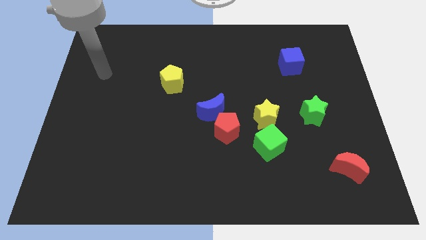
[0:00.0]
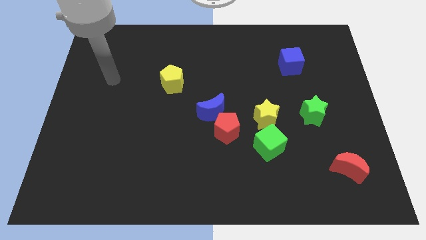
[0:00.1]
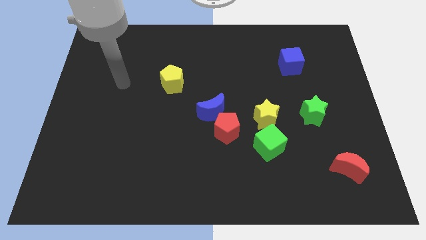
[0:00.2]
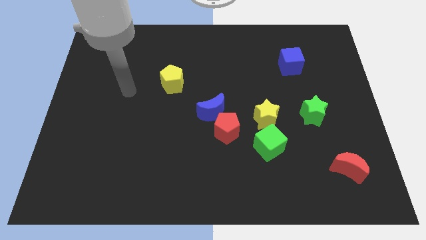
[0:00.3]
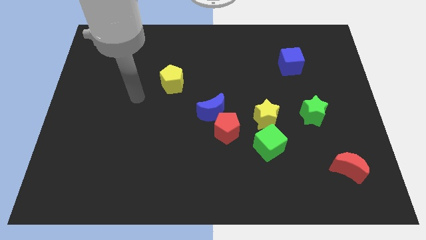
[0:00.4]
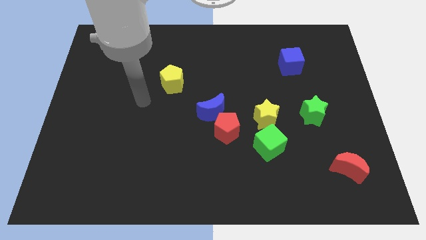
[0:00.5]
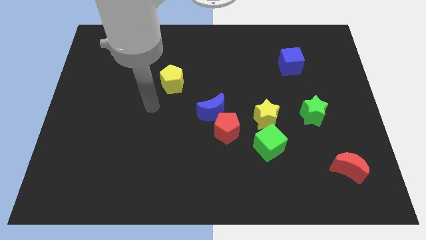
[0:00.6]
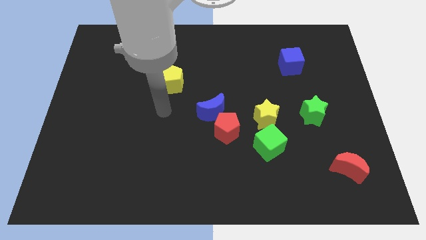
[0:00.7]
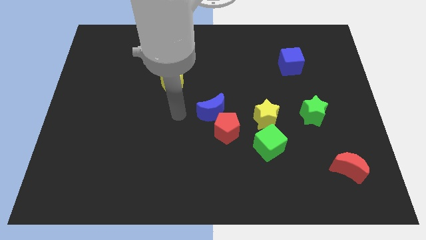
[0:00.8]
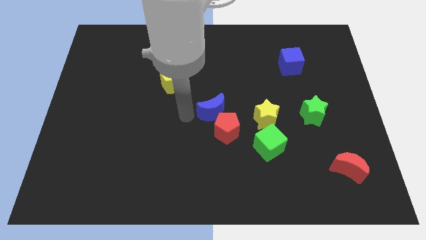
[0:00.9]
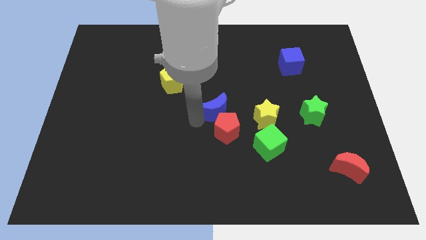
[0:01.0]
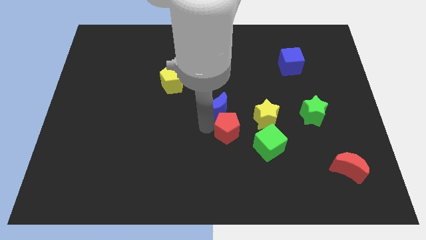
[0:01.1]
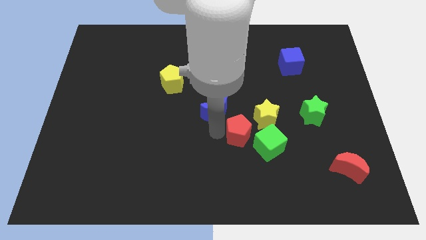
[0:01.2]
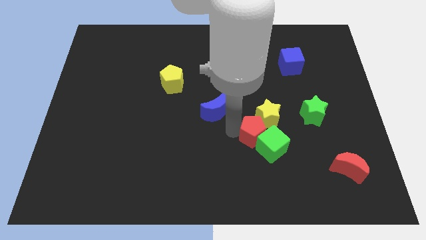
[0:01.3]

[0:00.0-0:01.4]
separate the blue moon from the red pentagon

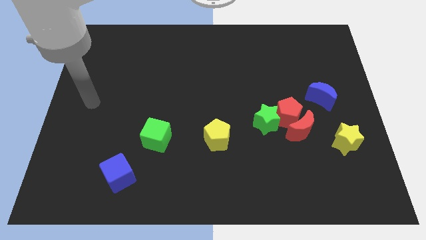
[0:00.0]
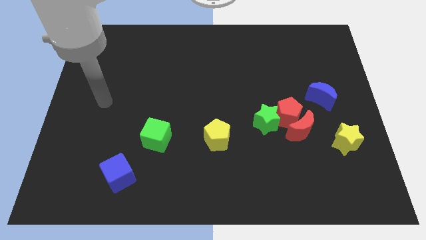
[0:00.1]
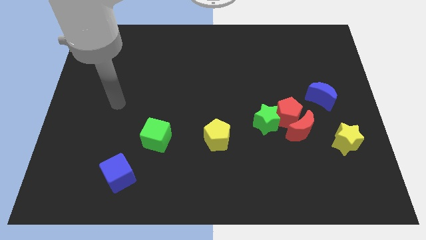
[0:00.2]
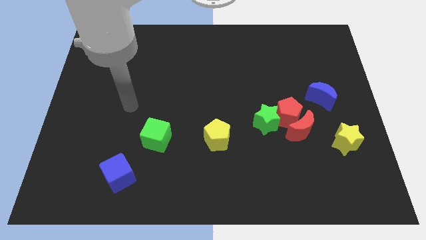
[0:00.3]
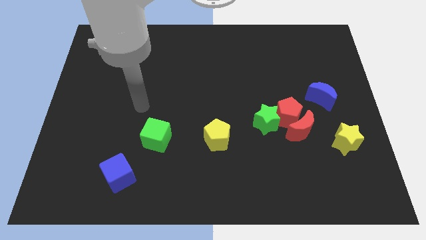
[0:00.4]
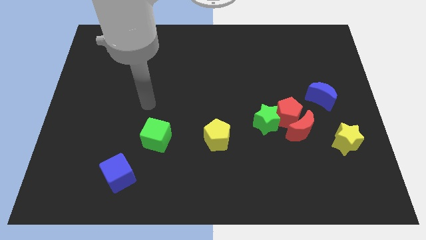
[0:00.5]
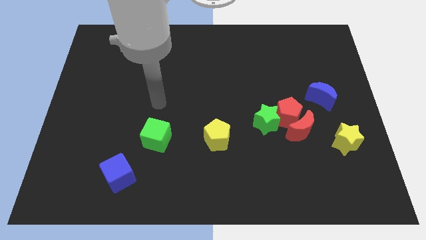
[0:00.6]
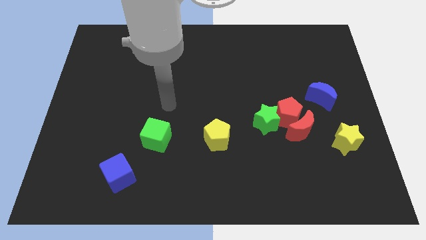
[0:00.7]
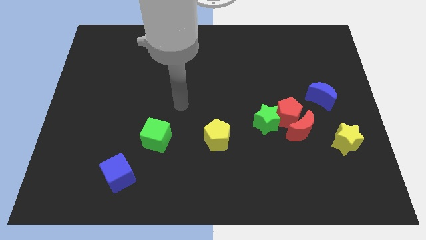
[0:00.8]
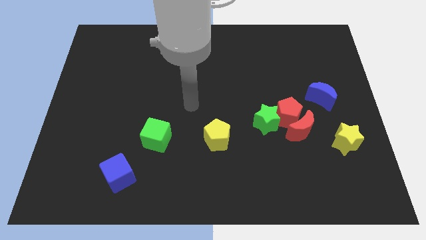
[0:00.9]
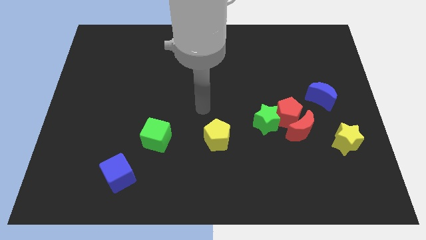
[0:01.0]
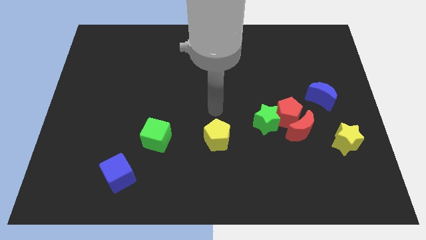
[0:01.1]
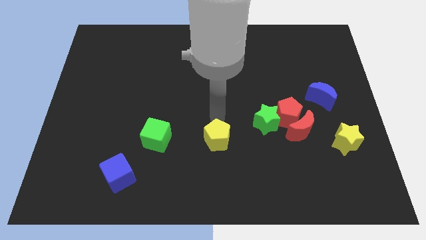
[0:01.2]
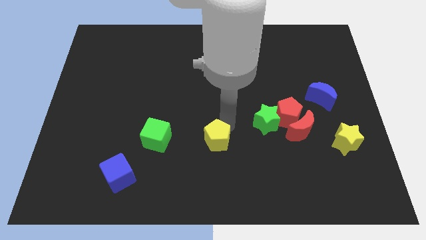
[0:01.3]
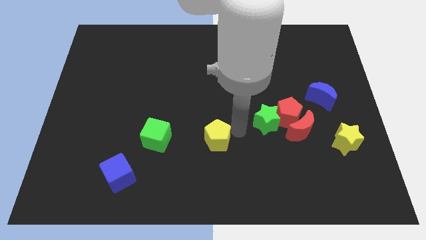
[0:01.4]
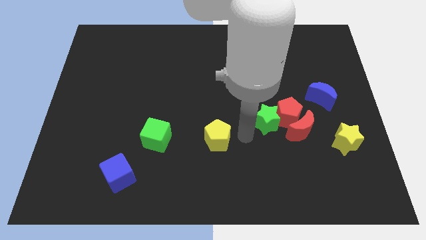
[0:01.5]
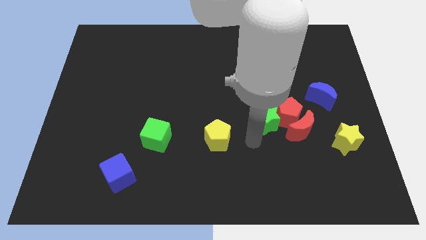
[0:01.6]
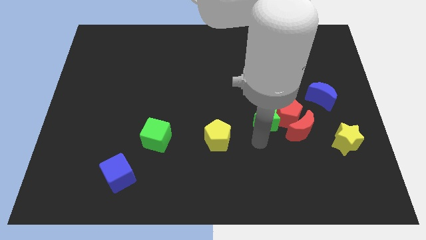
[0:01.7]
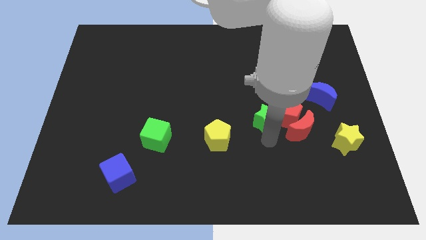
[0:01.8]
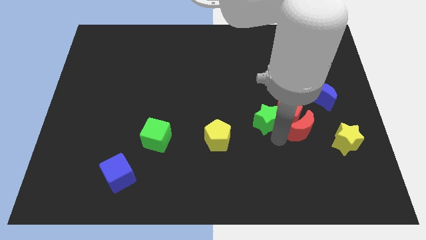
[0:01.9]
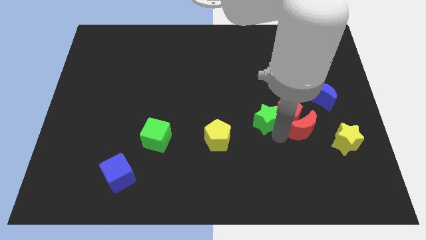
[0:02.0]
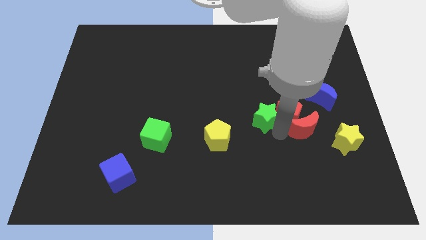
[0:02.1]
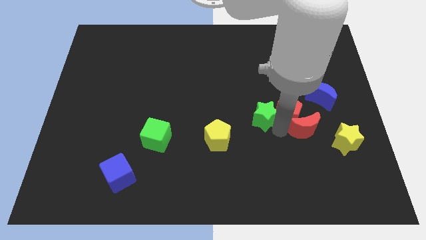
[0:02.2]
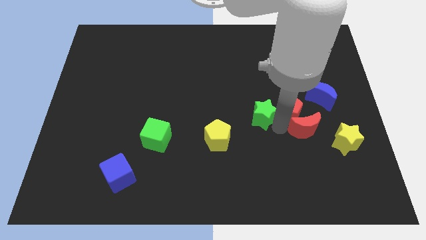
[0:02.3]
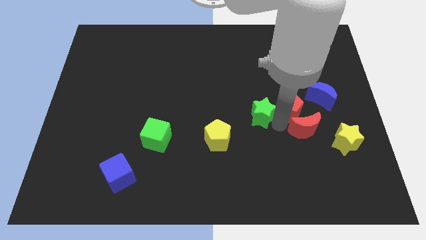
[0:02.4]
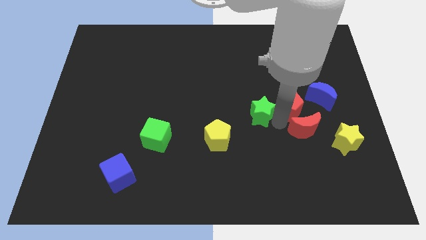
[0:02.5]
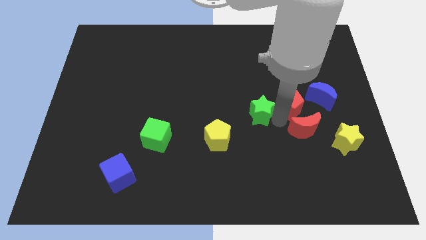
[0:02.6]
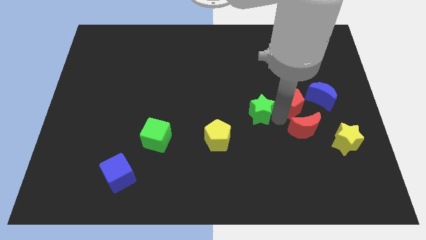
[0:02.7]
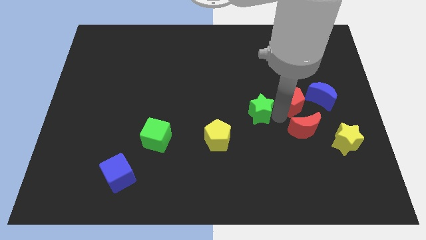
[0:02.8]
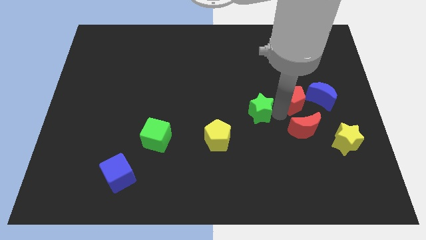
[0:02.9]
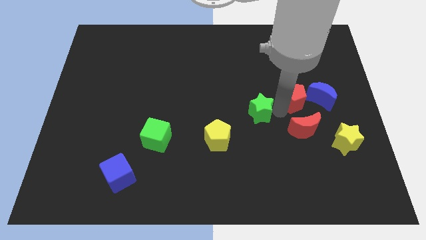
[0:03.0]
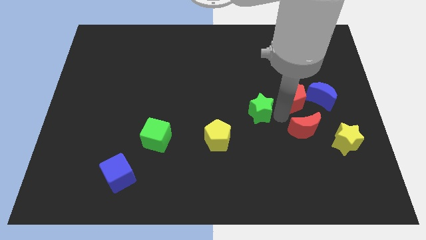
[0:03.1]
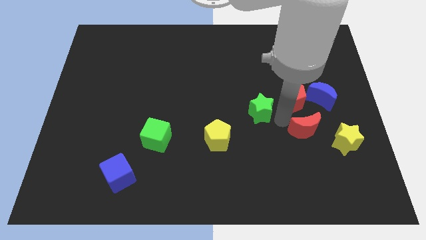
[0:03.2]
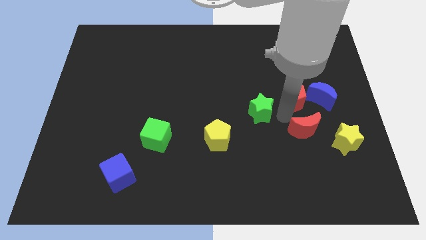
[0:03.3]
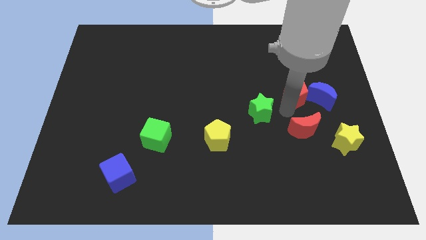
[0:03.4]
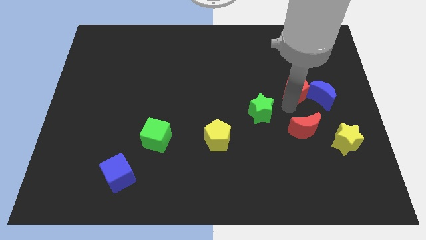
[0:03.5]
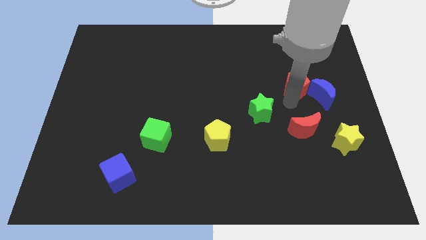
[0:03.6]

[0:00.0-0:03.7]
pull the red pentagon apart from the red moon and green star

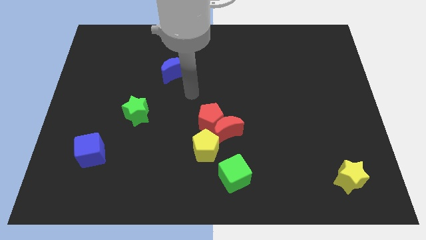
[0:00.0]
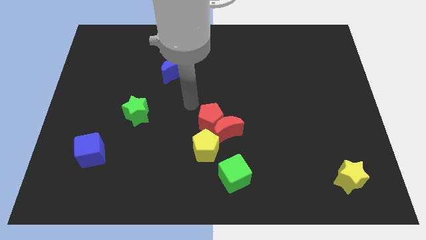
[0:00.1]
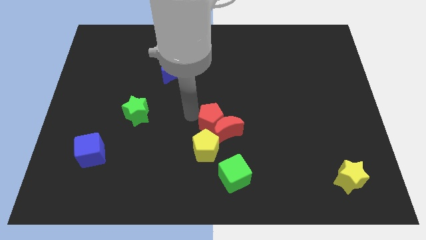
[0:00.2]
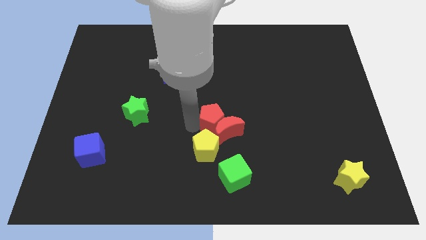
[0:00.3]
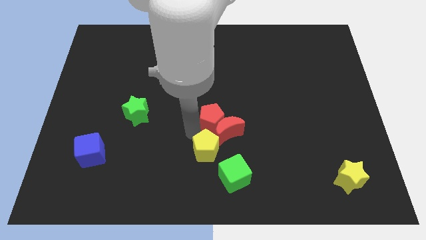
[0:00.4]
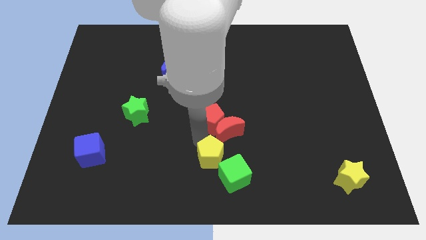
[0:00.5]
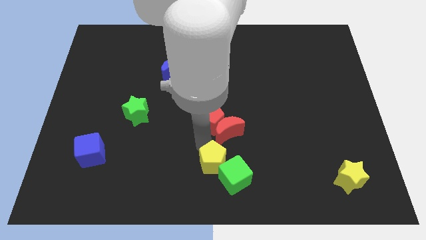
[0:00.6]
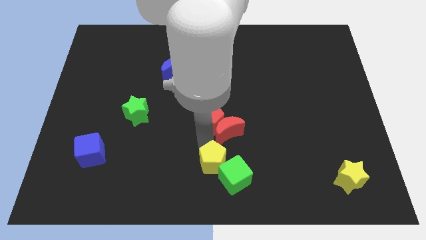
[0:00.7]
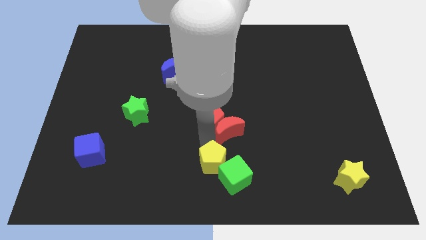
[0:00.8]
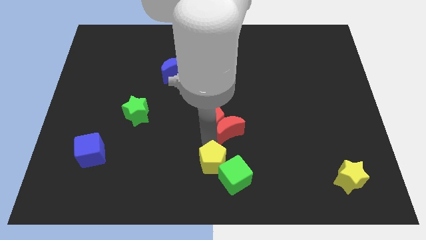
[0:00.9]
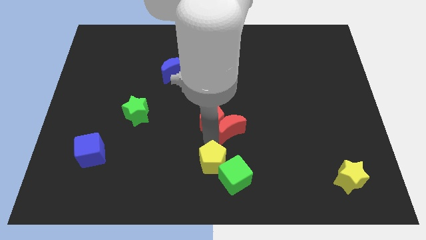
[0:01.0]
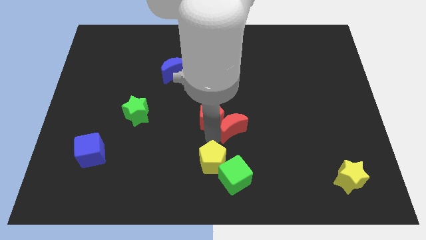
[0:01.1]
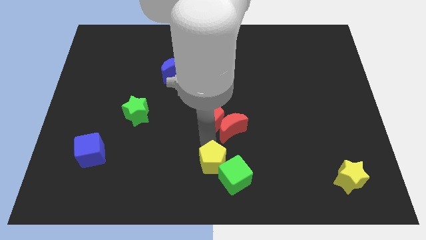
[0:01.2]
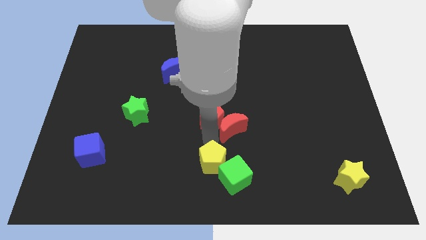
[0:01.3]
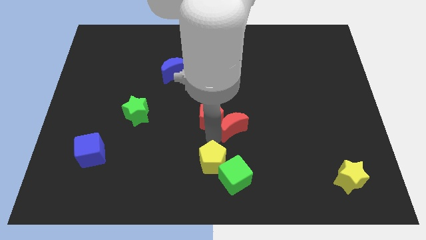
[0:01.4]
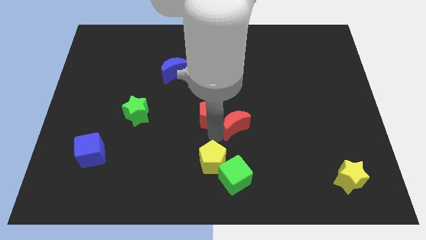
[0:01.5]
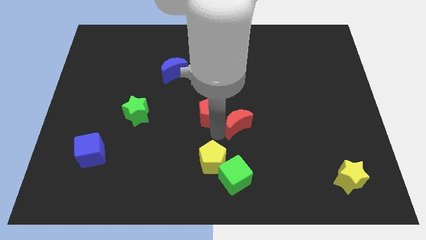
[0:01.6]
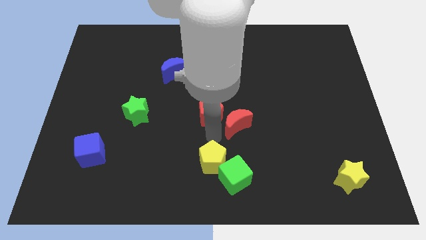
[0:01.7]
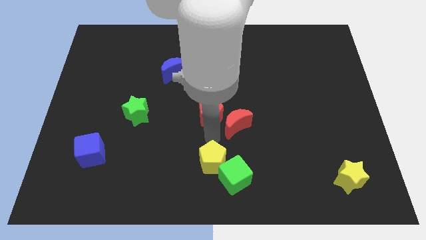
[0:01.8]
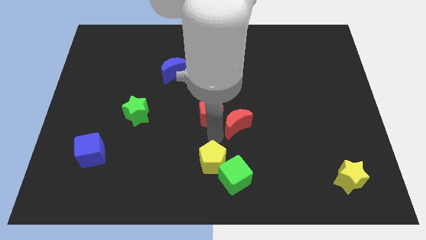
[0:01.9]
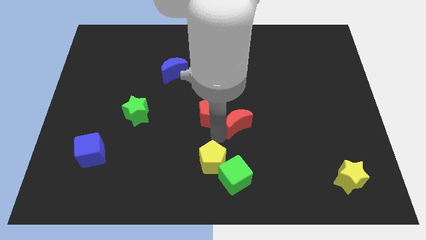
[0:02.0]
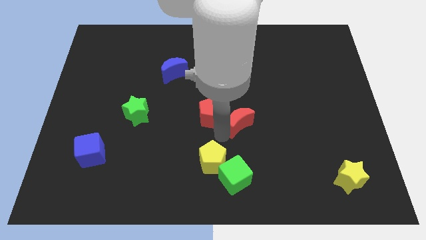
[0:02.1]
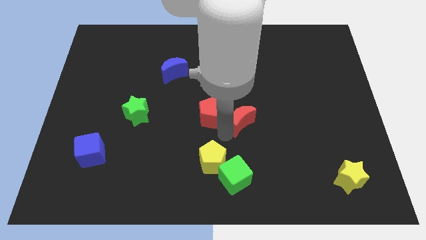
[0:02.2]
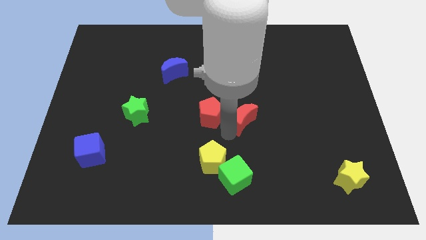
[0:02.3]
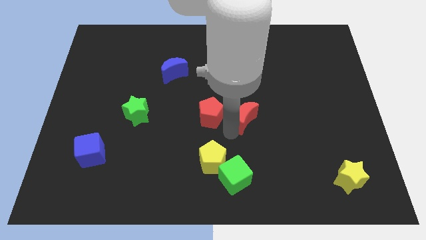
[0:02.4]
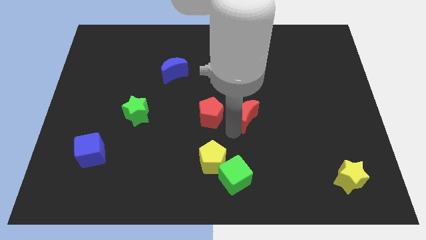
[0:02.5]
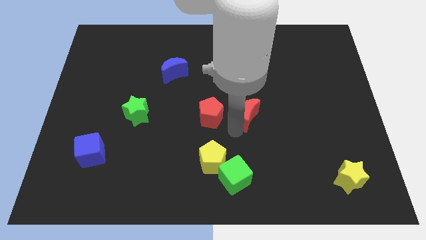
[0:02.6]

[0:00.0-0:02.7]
move the red moon away from the red pentagon and yellow pentagon

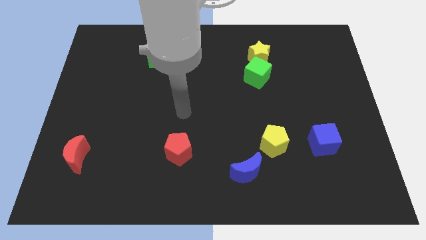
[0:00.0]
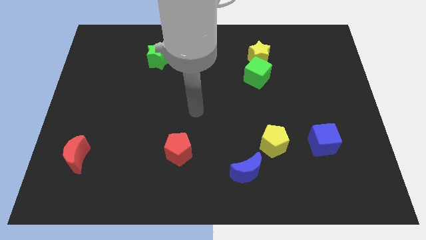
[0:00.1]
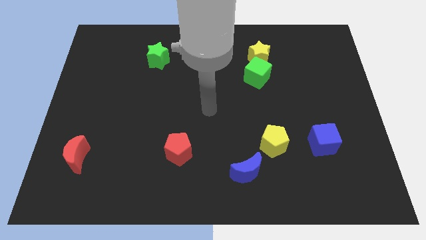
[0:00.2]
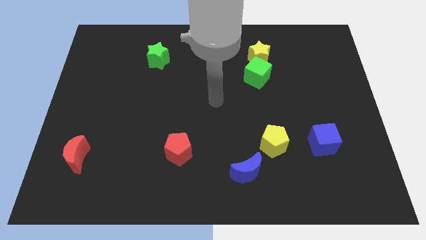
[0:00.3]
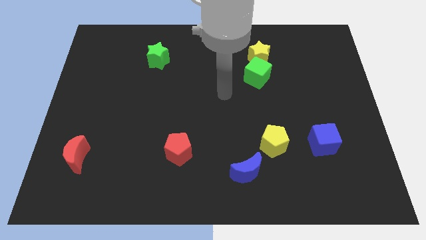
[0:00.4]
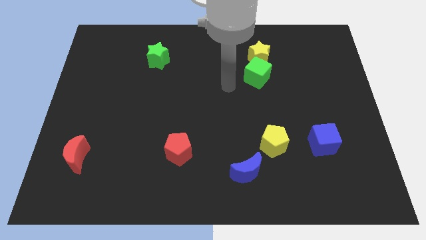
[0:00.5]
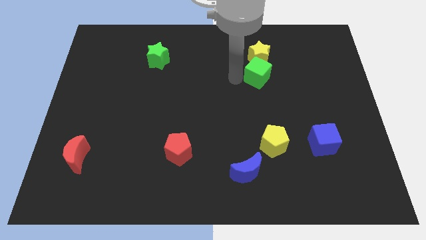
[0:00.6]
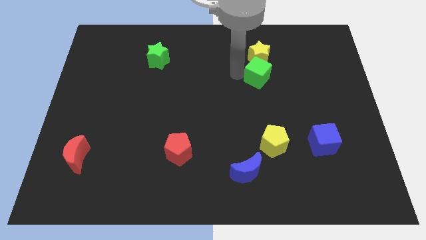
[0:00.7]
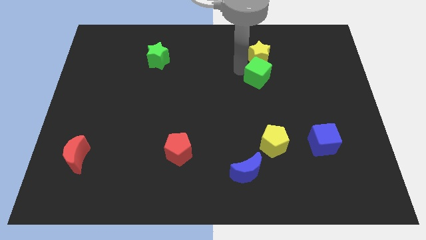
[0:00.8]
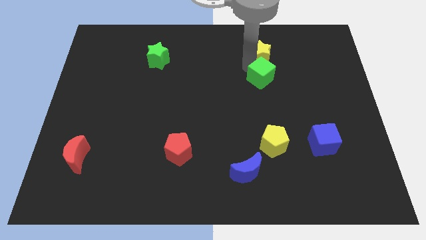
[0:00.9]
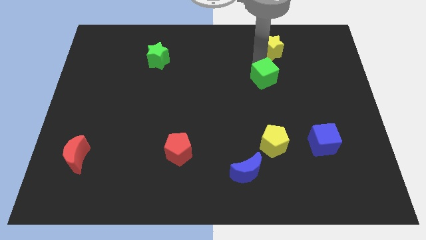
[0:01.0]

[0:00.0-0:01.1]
separate the green cube from the yellow star

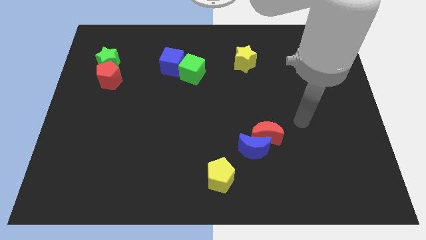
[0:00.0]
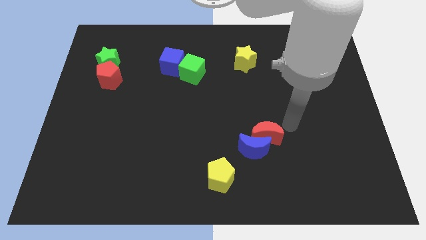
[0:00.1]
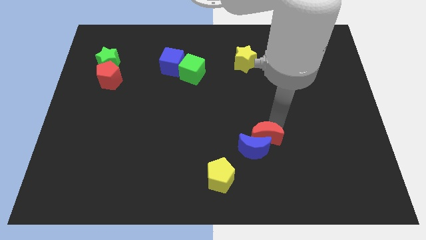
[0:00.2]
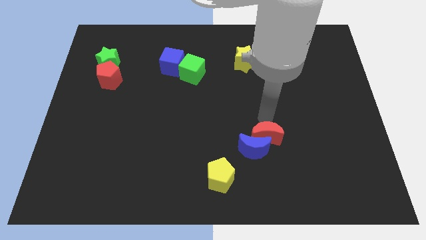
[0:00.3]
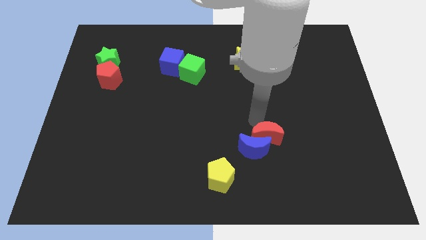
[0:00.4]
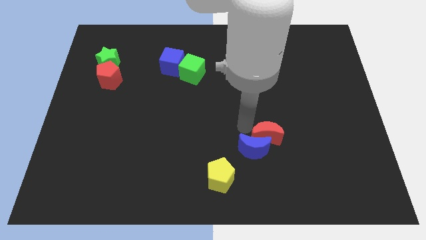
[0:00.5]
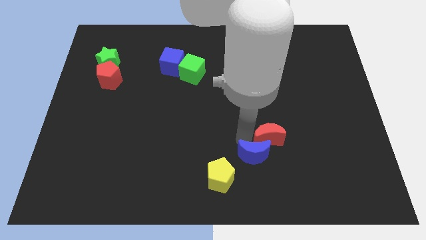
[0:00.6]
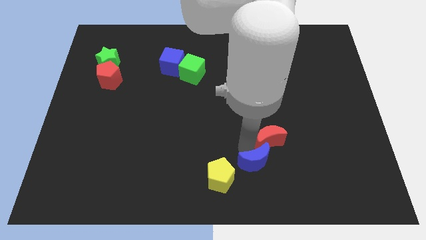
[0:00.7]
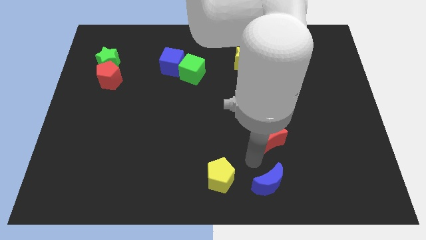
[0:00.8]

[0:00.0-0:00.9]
pull the red moon apart from the blue moon
